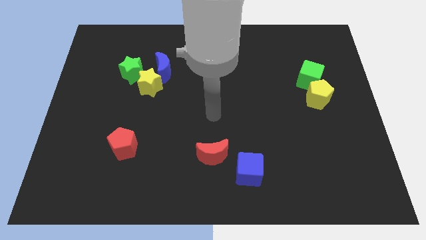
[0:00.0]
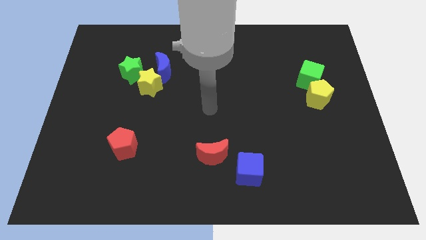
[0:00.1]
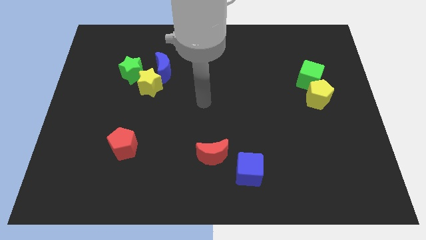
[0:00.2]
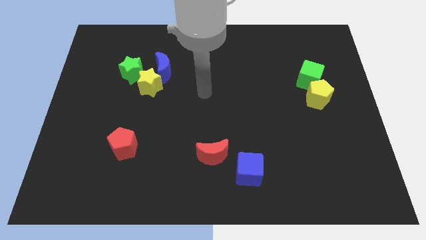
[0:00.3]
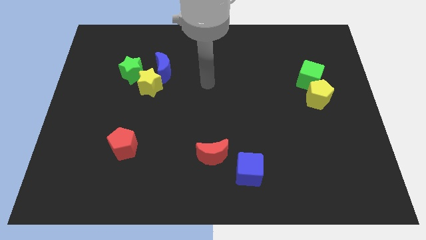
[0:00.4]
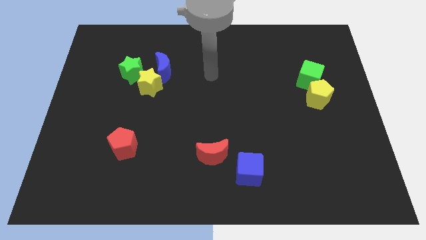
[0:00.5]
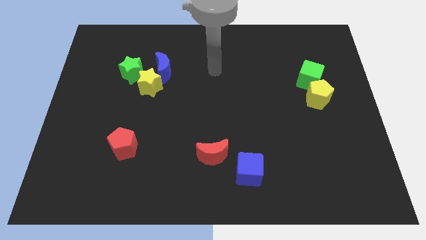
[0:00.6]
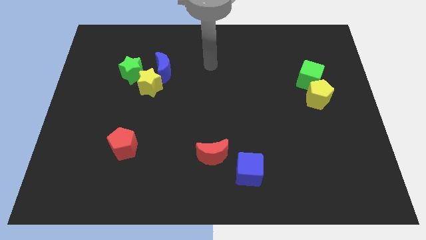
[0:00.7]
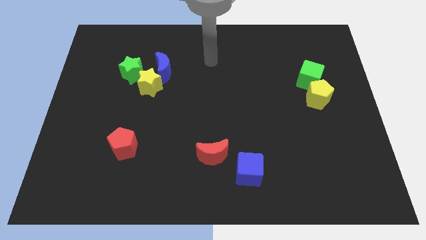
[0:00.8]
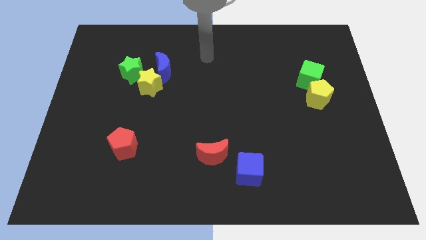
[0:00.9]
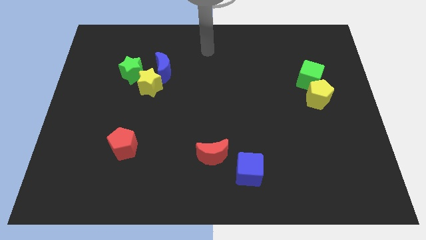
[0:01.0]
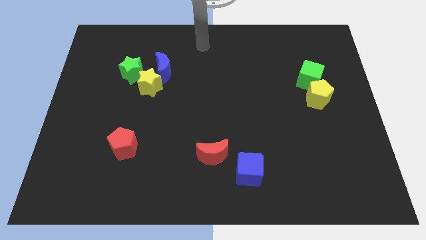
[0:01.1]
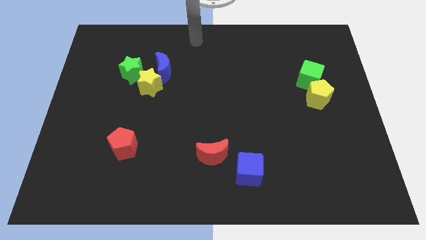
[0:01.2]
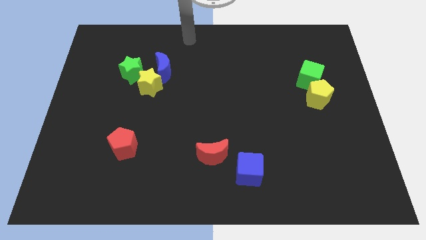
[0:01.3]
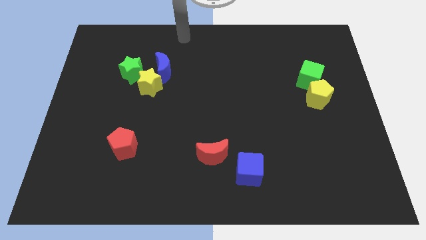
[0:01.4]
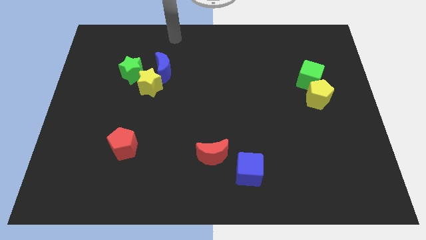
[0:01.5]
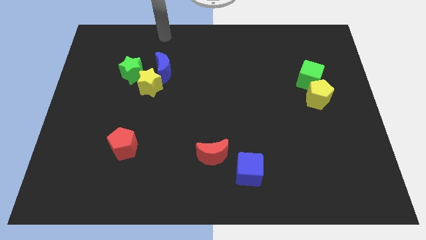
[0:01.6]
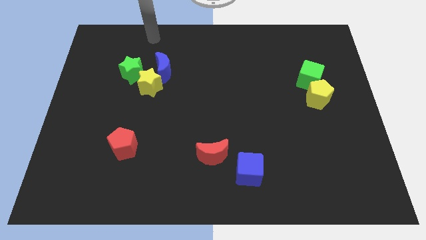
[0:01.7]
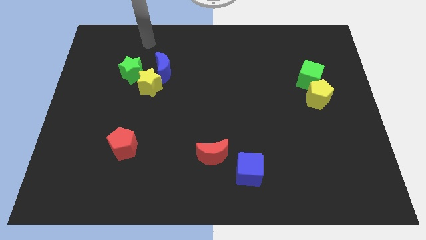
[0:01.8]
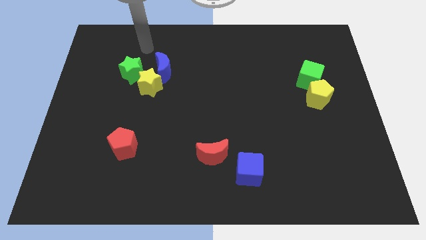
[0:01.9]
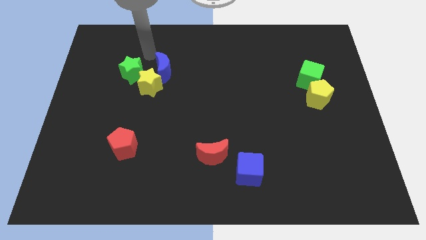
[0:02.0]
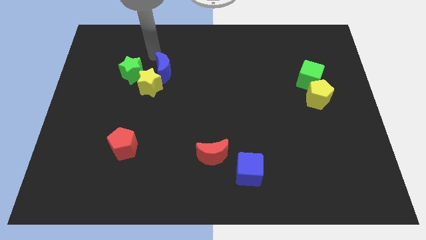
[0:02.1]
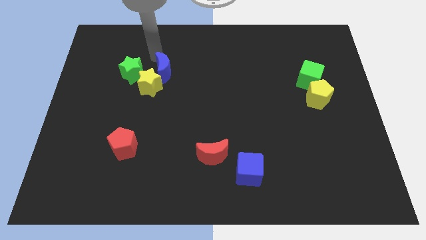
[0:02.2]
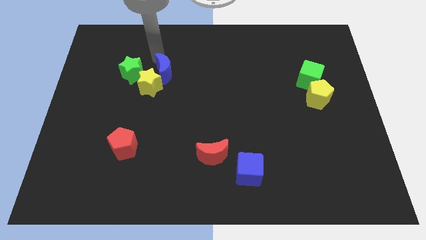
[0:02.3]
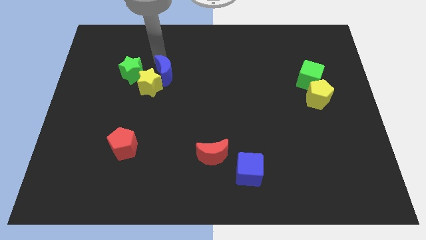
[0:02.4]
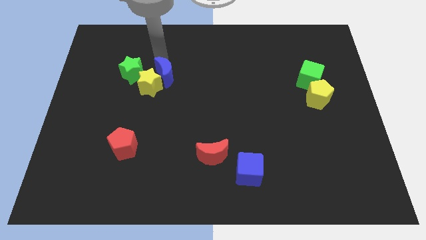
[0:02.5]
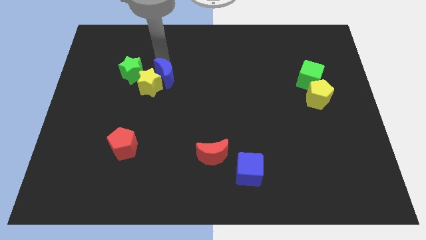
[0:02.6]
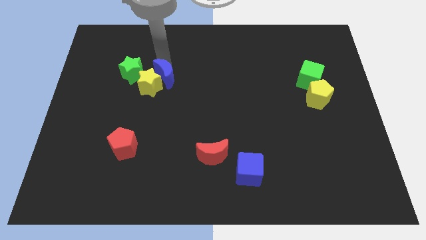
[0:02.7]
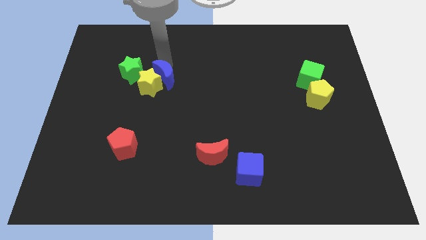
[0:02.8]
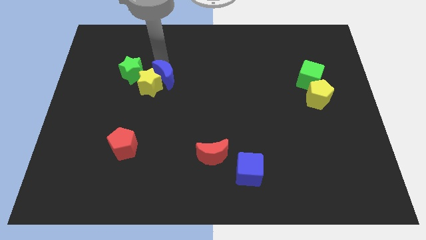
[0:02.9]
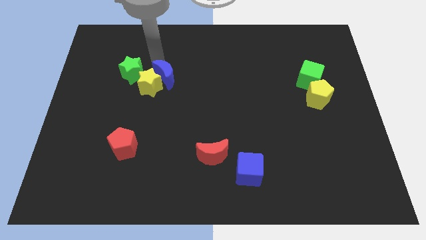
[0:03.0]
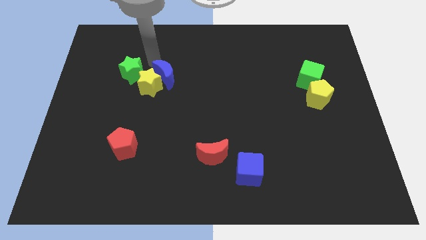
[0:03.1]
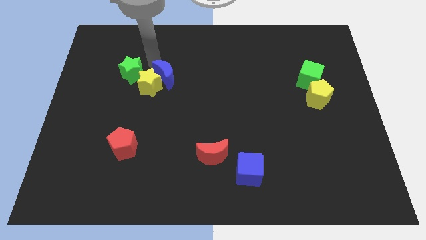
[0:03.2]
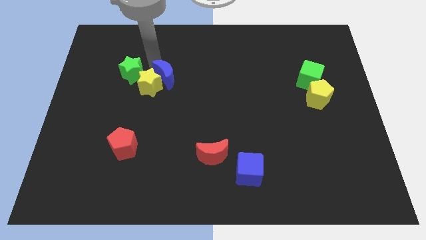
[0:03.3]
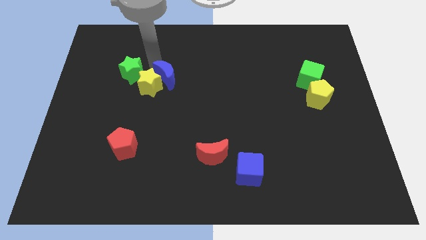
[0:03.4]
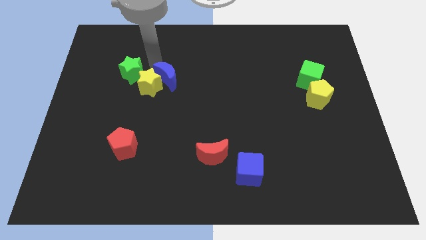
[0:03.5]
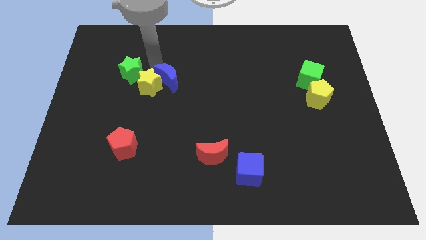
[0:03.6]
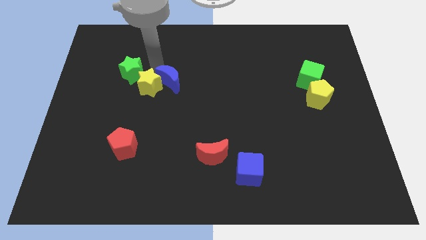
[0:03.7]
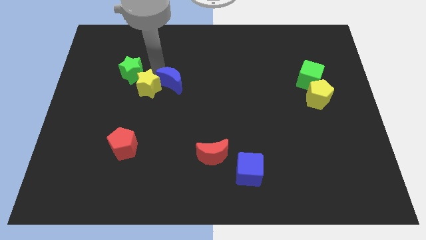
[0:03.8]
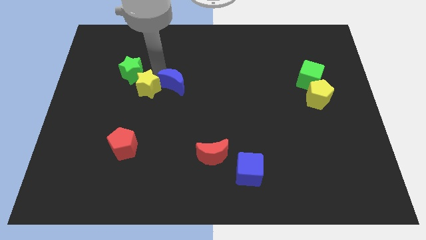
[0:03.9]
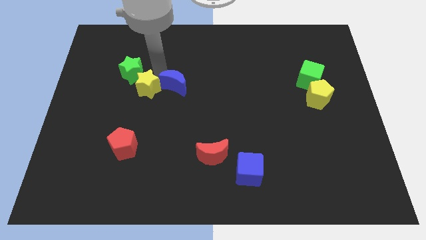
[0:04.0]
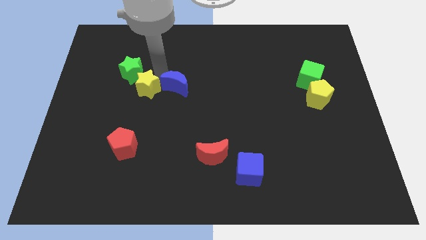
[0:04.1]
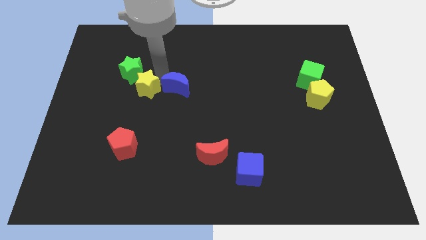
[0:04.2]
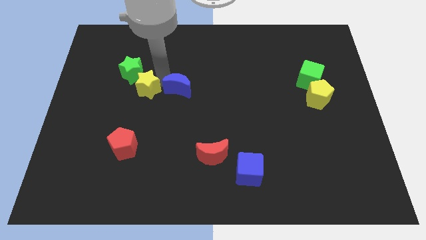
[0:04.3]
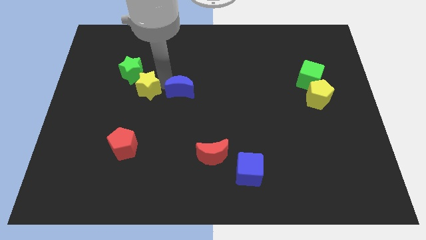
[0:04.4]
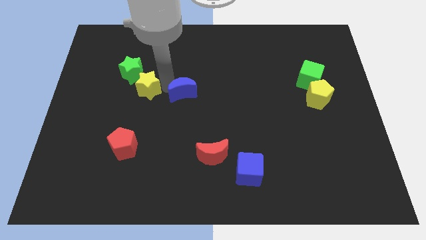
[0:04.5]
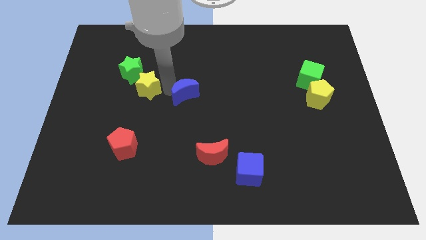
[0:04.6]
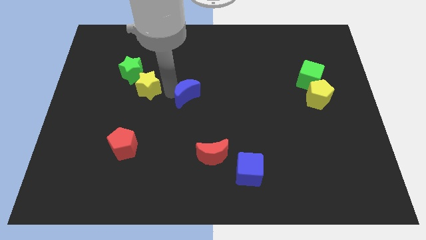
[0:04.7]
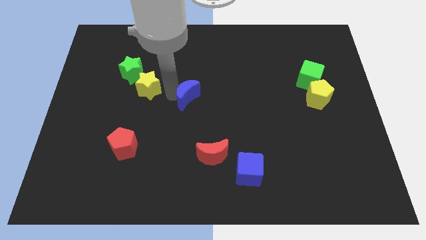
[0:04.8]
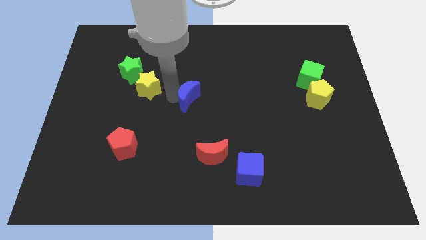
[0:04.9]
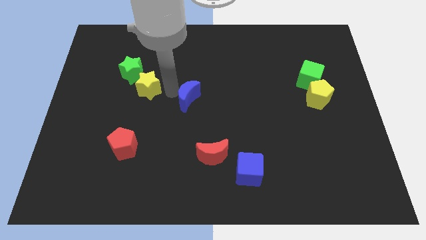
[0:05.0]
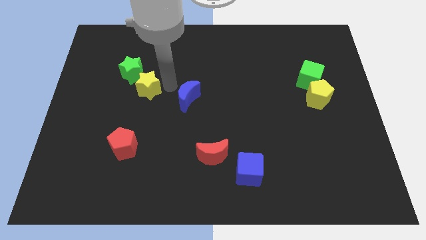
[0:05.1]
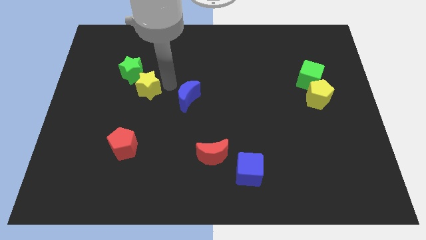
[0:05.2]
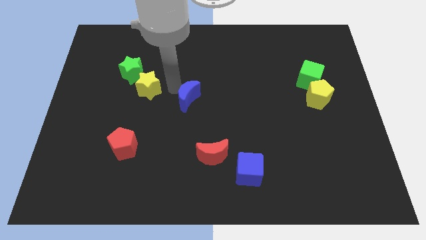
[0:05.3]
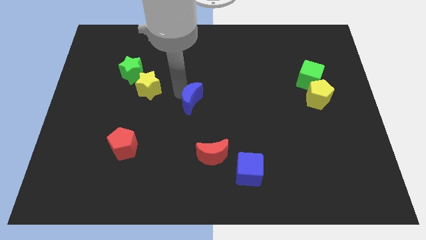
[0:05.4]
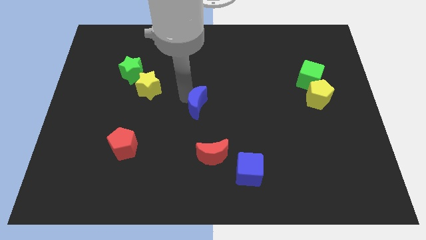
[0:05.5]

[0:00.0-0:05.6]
push the blue moon to the top side of the red moon
